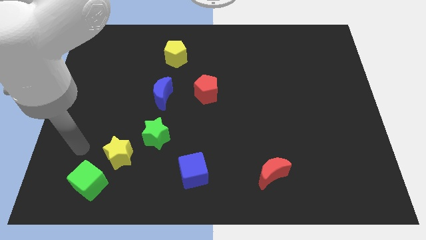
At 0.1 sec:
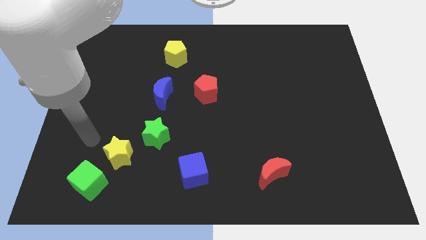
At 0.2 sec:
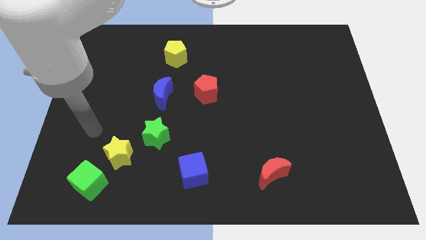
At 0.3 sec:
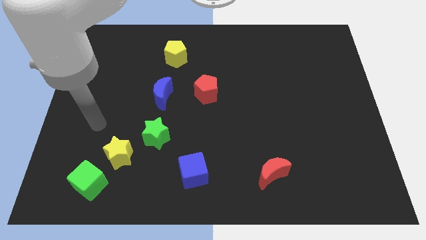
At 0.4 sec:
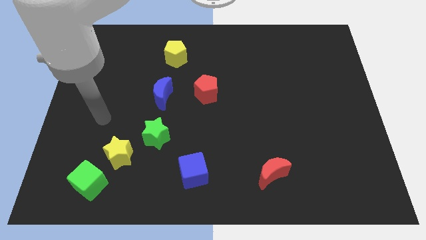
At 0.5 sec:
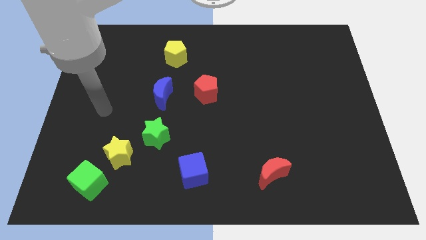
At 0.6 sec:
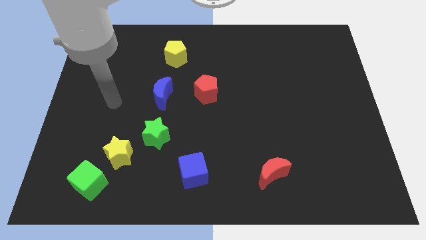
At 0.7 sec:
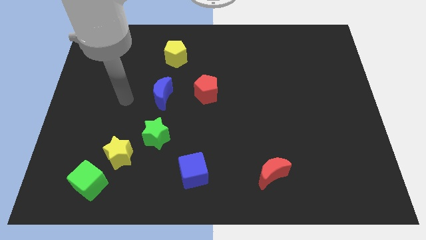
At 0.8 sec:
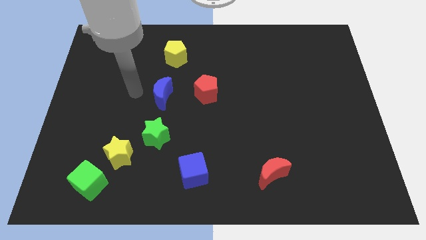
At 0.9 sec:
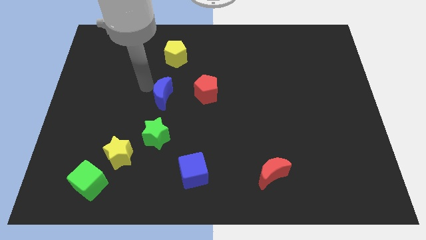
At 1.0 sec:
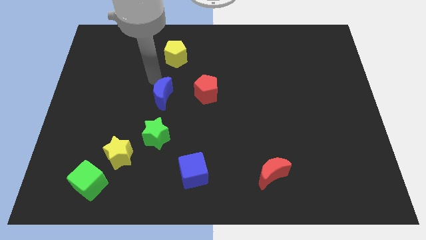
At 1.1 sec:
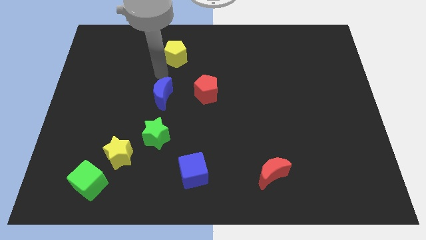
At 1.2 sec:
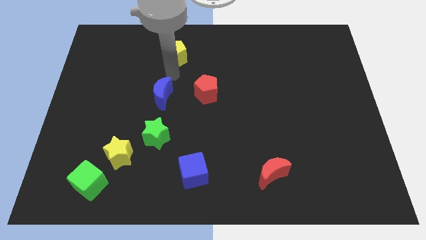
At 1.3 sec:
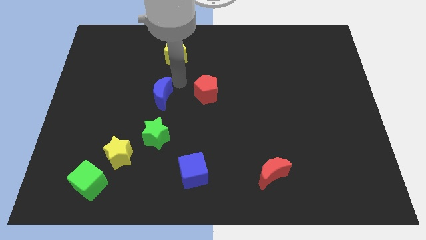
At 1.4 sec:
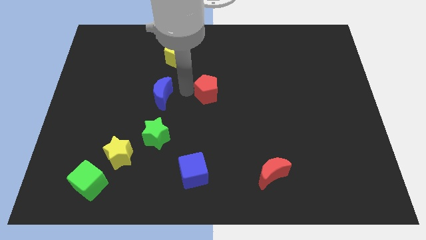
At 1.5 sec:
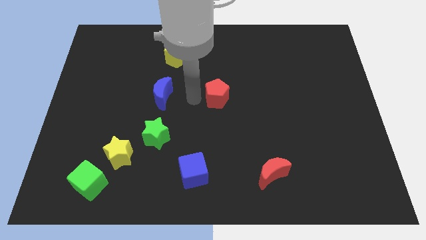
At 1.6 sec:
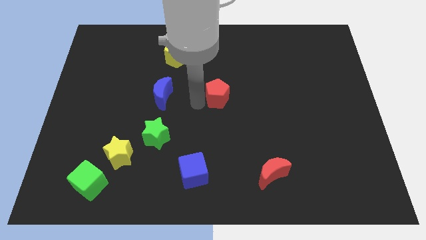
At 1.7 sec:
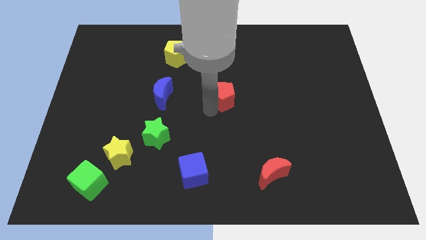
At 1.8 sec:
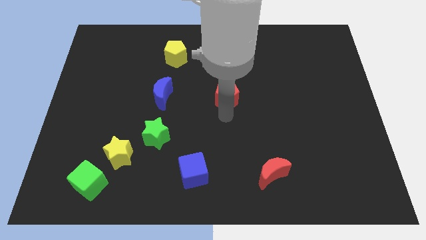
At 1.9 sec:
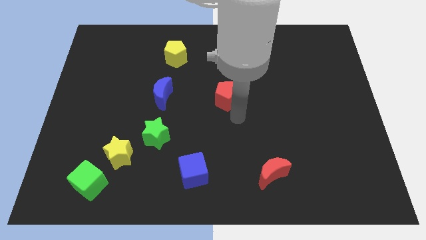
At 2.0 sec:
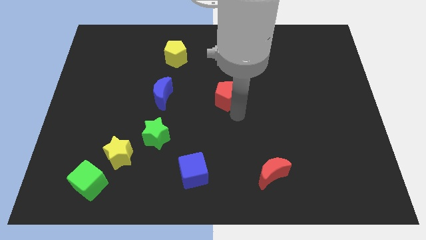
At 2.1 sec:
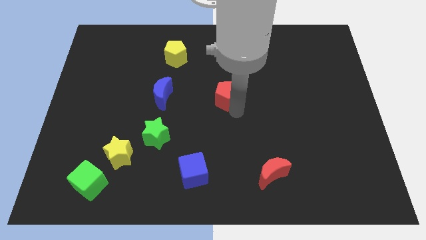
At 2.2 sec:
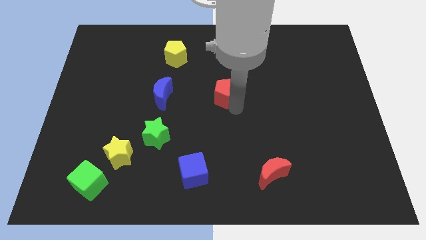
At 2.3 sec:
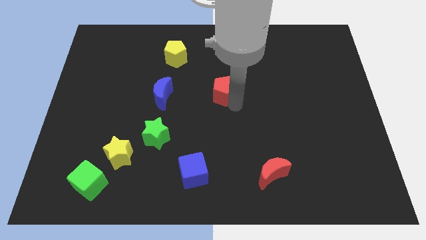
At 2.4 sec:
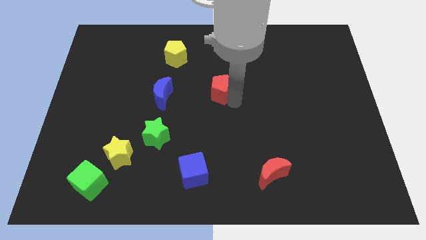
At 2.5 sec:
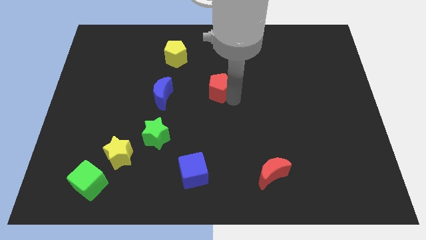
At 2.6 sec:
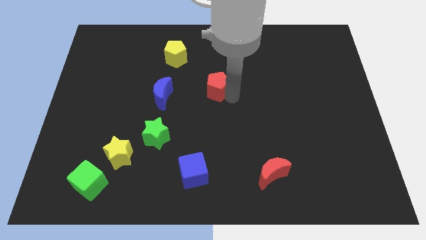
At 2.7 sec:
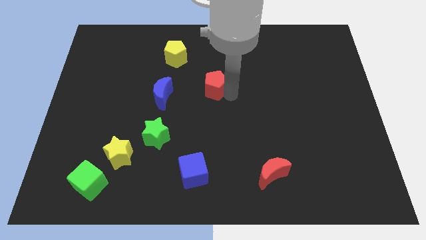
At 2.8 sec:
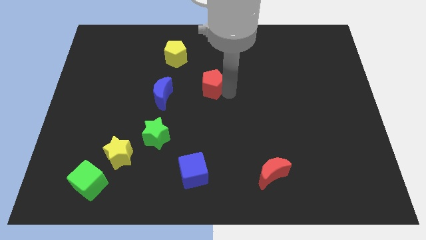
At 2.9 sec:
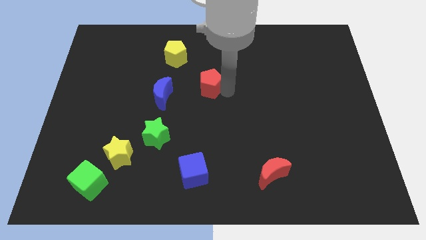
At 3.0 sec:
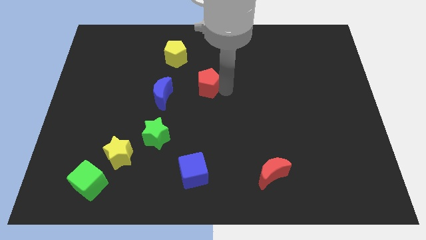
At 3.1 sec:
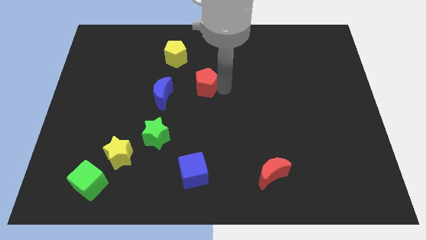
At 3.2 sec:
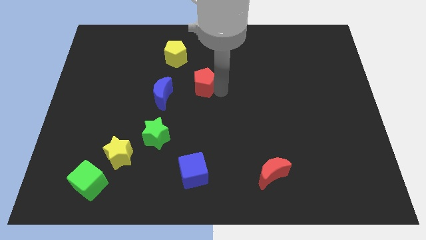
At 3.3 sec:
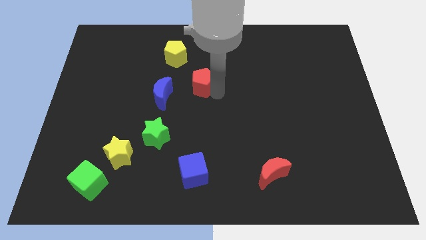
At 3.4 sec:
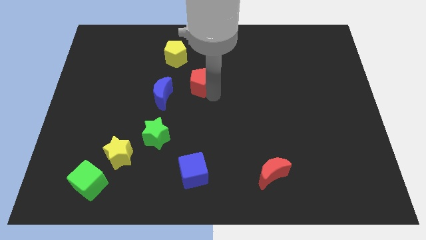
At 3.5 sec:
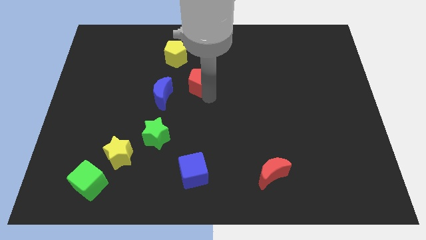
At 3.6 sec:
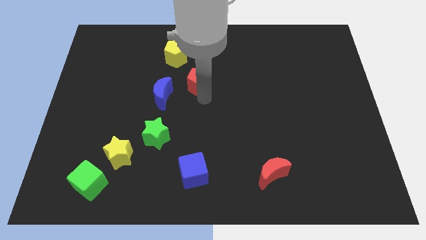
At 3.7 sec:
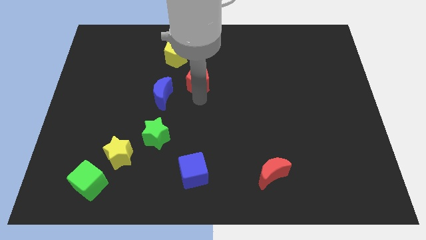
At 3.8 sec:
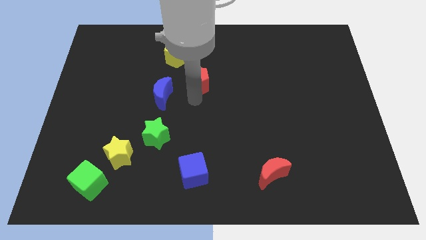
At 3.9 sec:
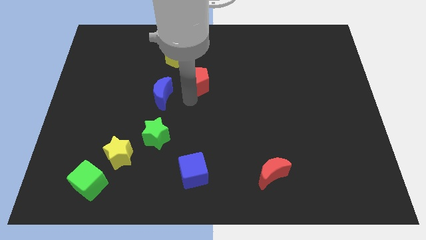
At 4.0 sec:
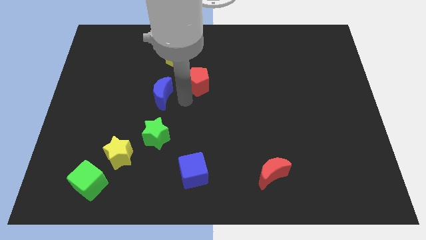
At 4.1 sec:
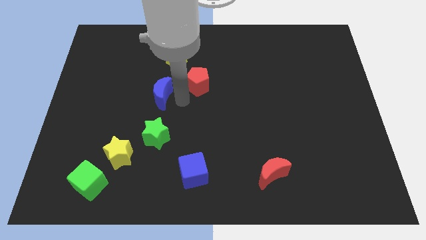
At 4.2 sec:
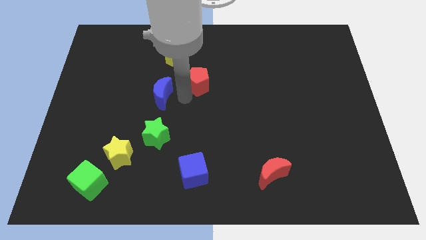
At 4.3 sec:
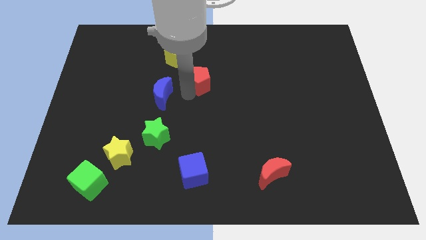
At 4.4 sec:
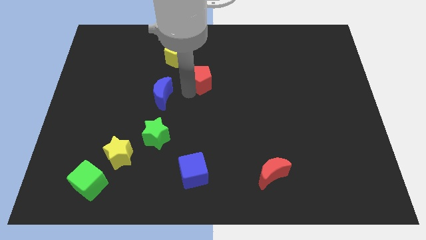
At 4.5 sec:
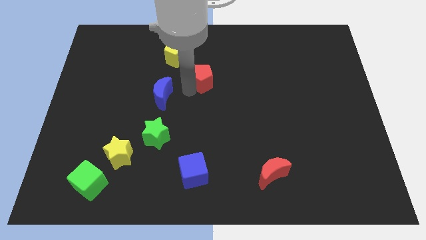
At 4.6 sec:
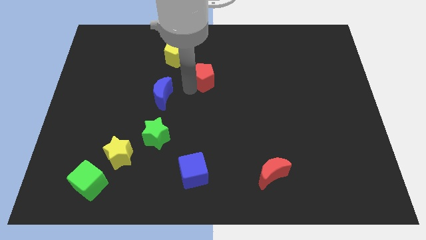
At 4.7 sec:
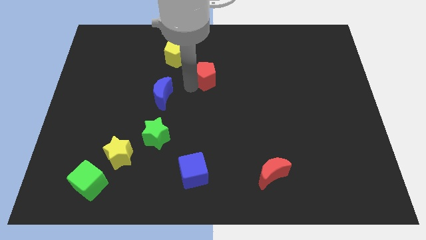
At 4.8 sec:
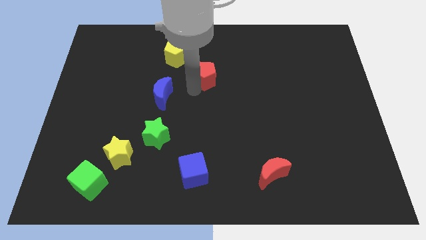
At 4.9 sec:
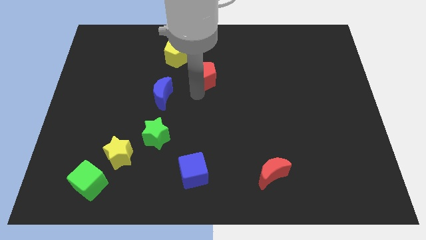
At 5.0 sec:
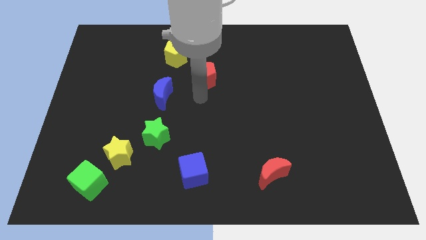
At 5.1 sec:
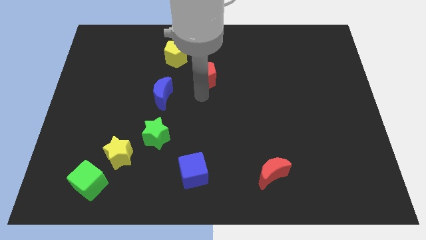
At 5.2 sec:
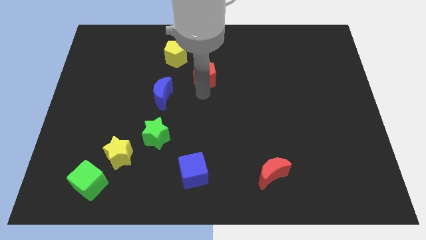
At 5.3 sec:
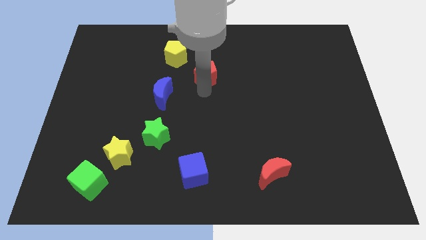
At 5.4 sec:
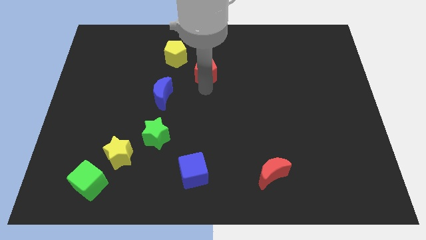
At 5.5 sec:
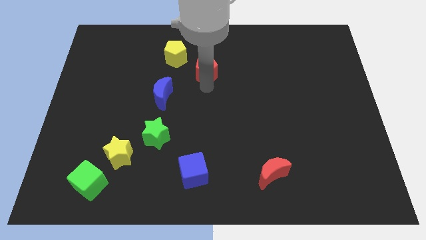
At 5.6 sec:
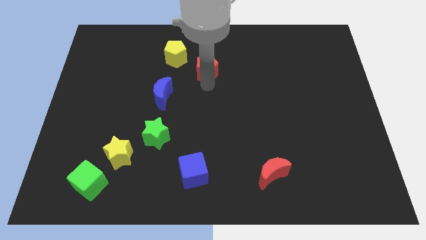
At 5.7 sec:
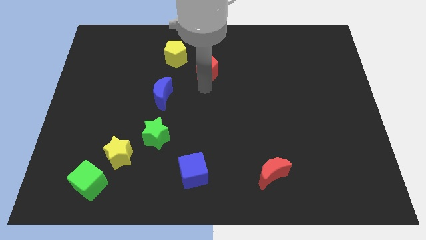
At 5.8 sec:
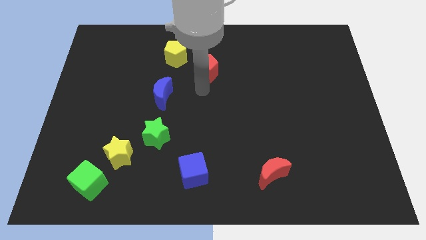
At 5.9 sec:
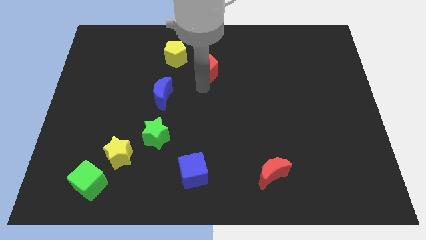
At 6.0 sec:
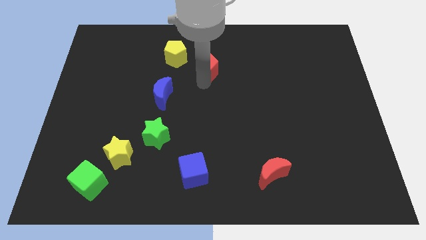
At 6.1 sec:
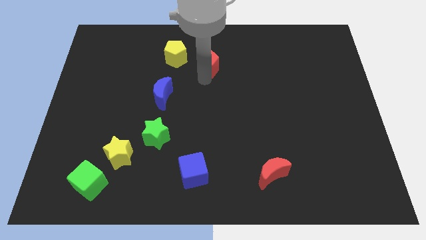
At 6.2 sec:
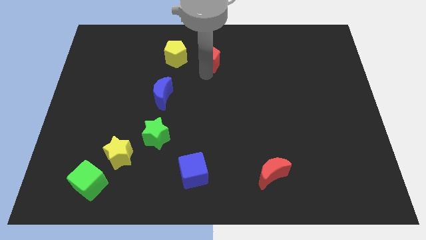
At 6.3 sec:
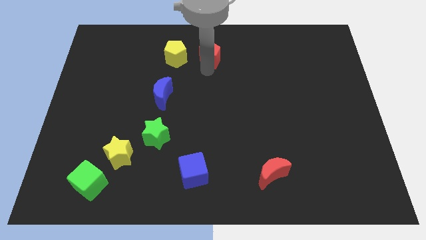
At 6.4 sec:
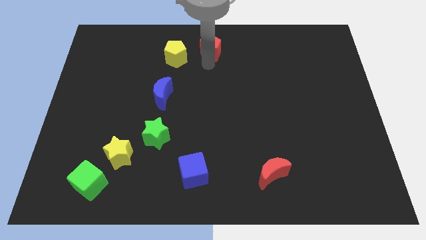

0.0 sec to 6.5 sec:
move the red pentagon to the top side

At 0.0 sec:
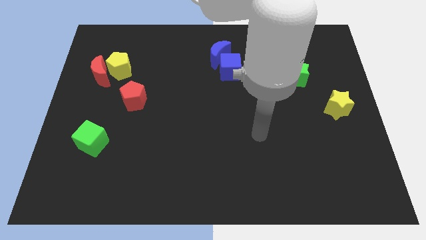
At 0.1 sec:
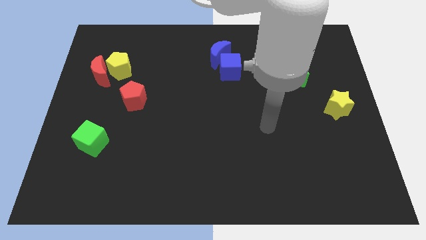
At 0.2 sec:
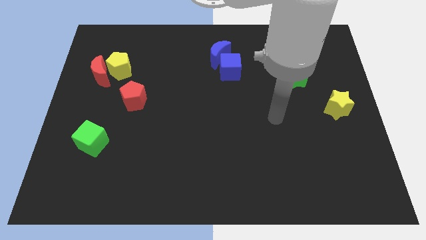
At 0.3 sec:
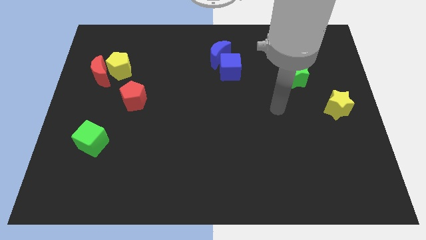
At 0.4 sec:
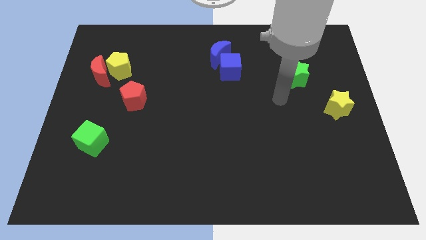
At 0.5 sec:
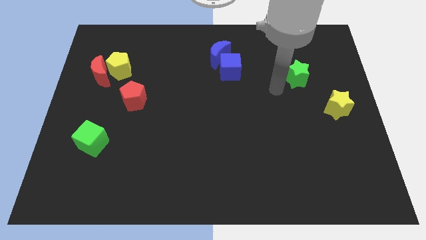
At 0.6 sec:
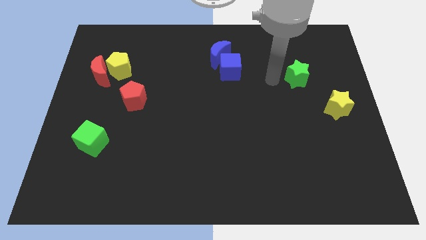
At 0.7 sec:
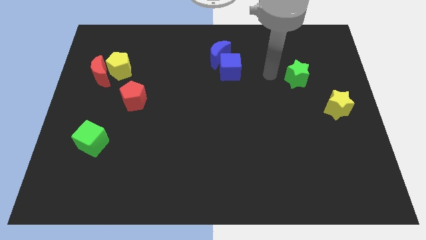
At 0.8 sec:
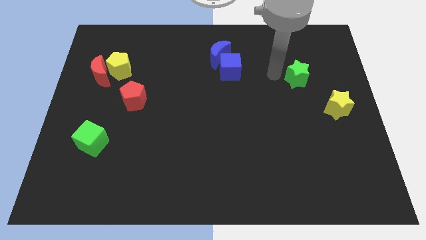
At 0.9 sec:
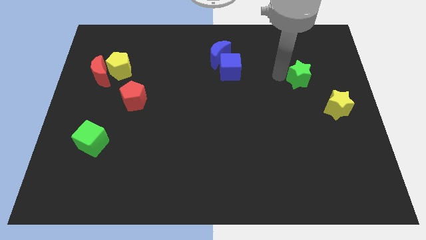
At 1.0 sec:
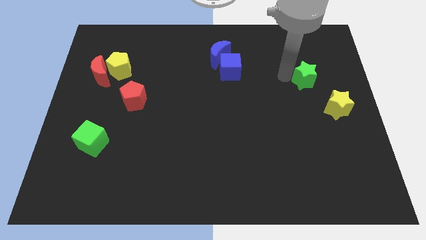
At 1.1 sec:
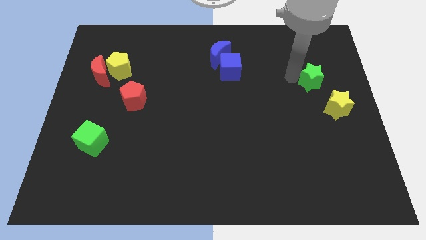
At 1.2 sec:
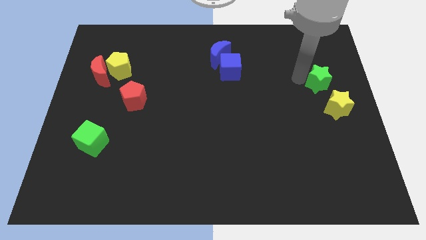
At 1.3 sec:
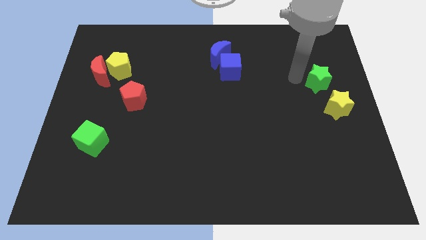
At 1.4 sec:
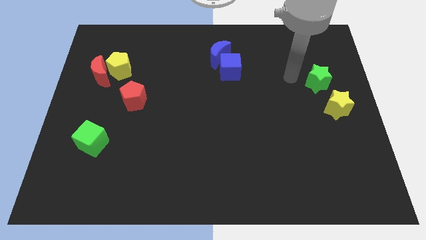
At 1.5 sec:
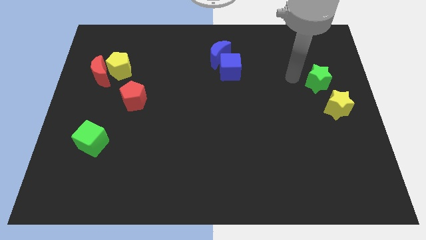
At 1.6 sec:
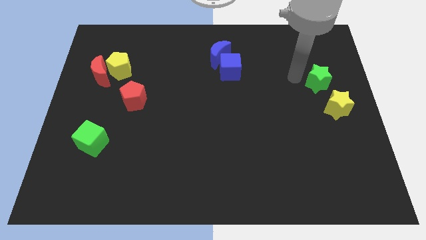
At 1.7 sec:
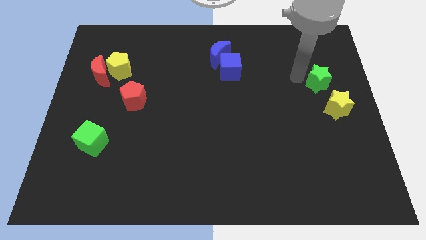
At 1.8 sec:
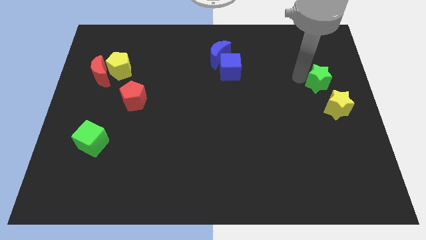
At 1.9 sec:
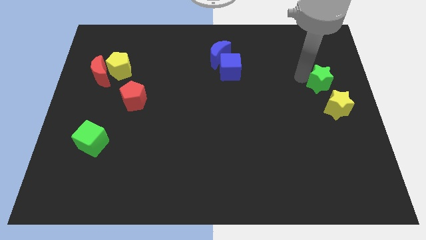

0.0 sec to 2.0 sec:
push the green star to the right side of the board
